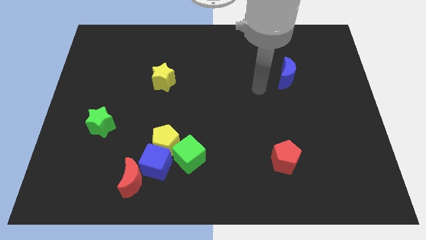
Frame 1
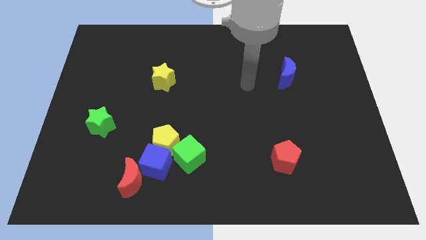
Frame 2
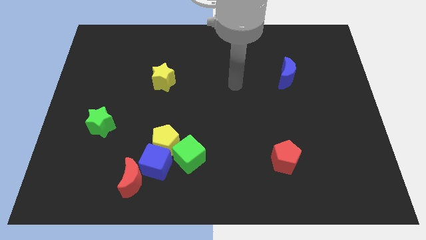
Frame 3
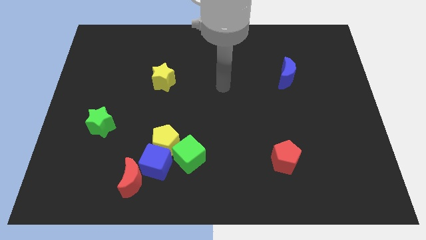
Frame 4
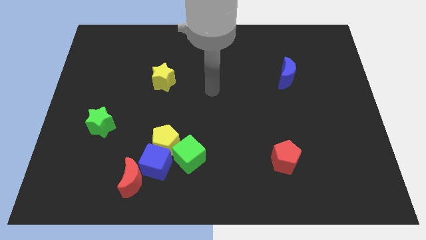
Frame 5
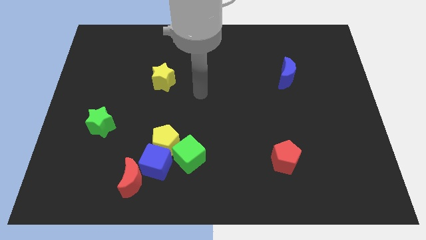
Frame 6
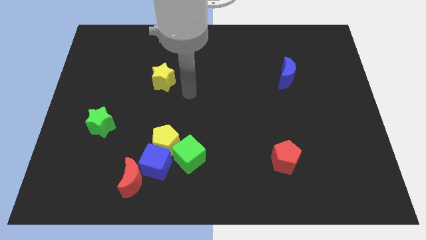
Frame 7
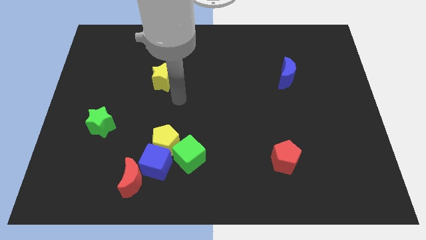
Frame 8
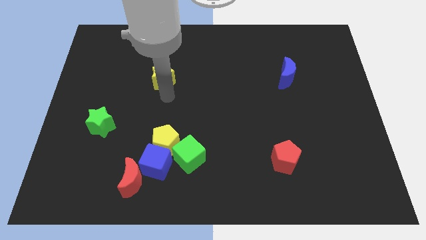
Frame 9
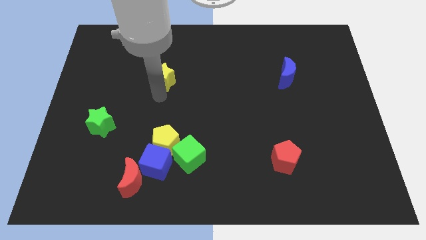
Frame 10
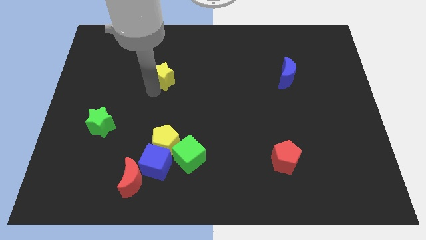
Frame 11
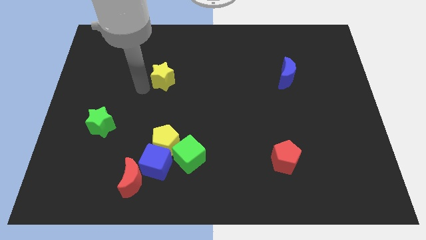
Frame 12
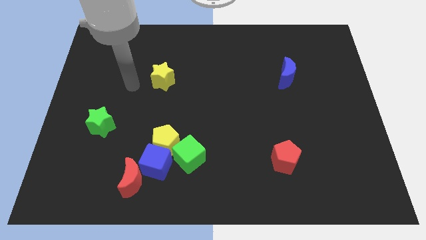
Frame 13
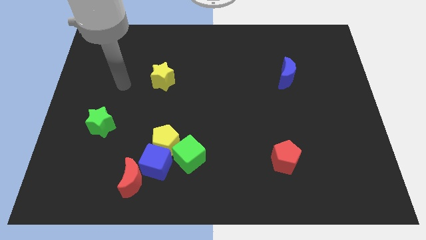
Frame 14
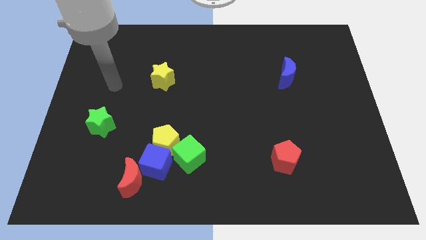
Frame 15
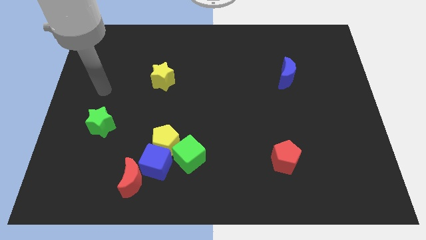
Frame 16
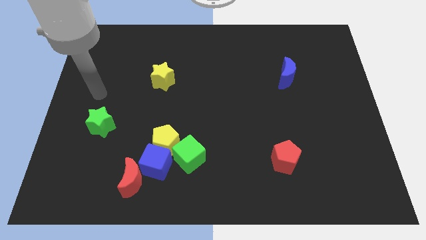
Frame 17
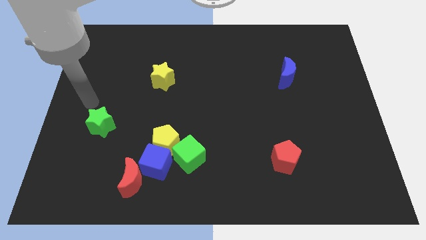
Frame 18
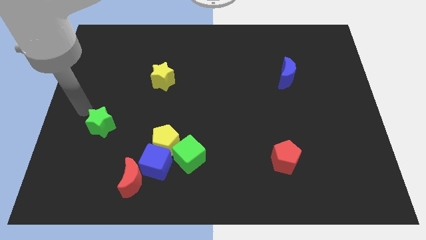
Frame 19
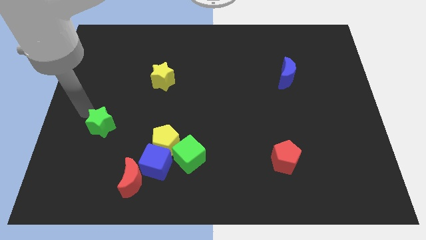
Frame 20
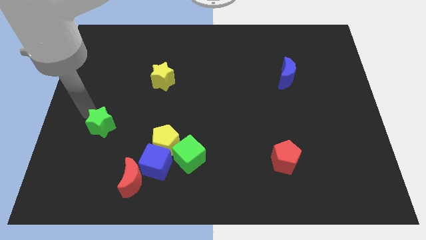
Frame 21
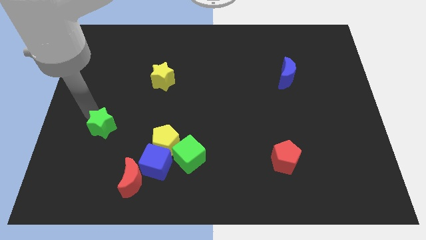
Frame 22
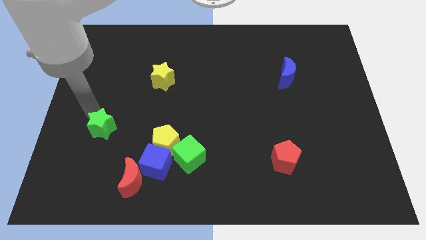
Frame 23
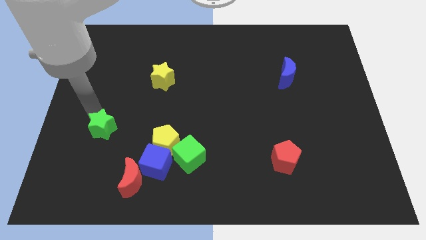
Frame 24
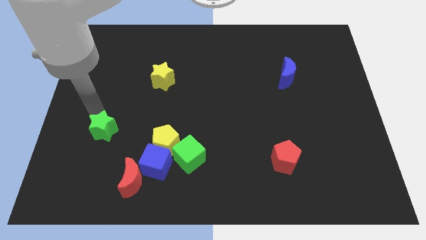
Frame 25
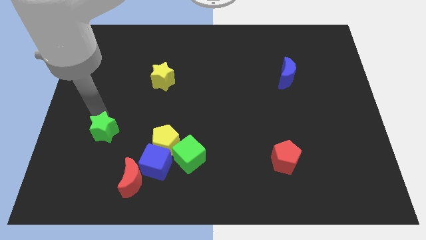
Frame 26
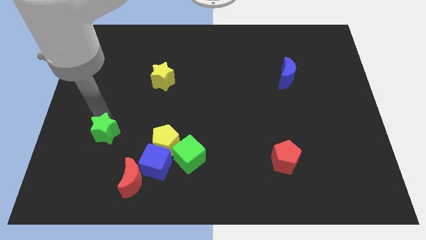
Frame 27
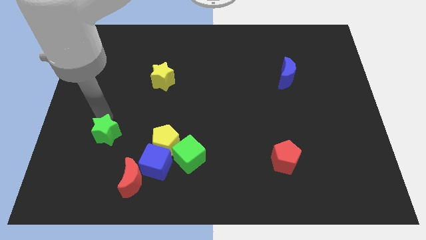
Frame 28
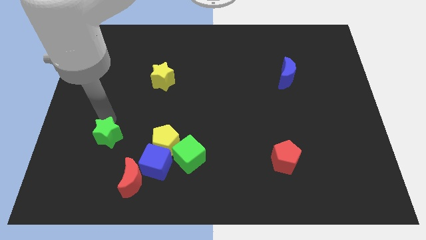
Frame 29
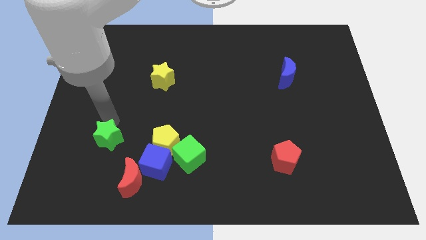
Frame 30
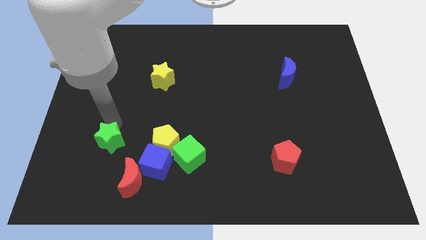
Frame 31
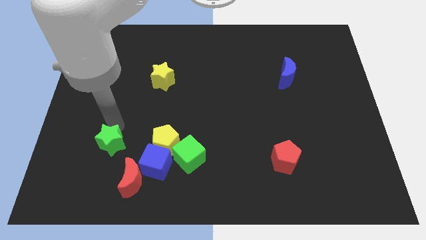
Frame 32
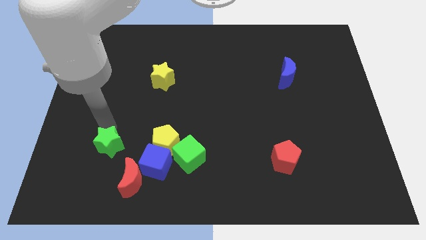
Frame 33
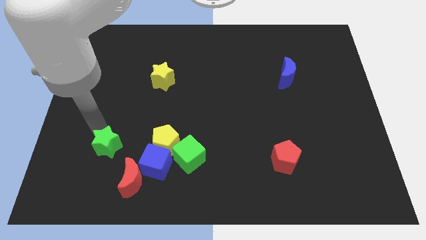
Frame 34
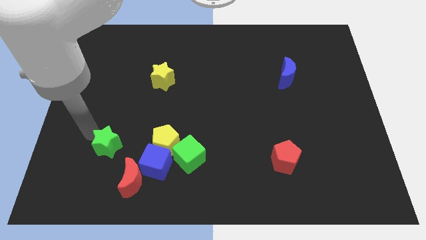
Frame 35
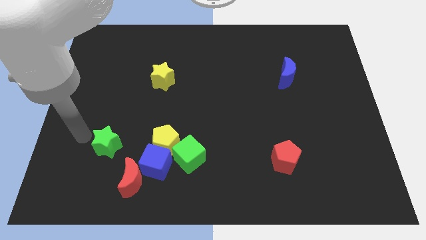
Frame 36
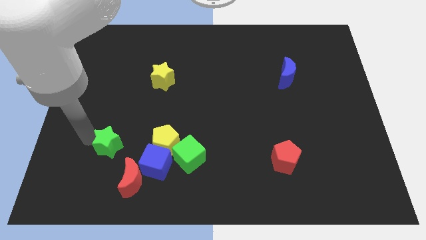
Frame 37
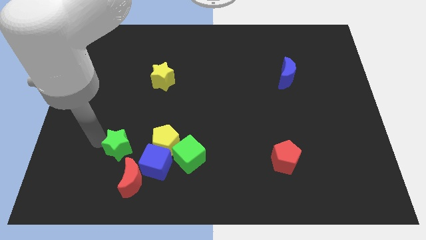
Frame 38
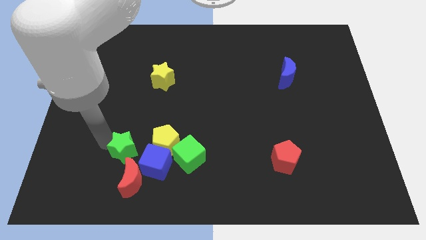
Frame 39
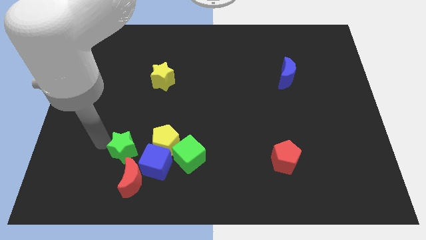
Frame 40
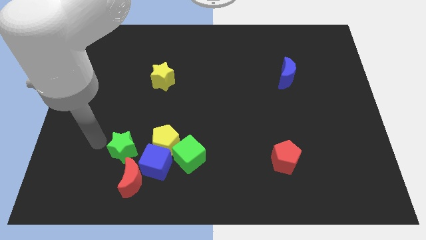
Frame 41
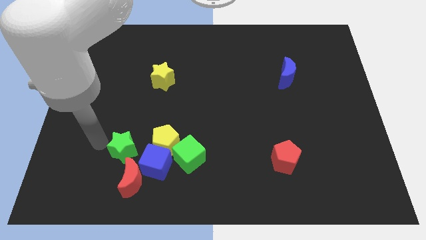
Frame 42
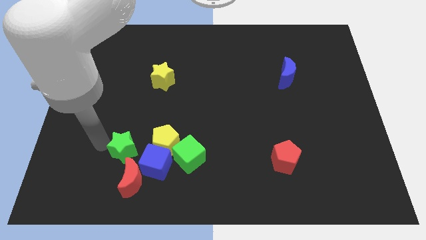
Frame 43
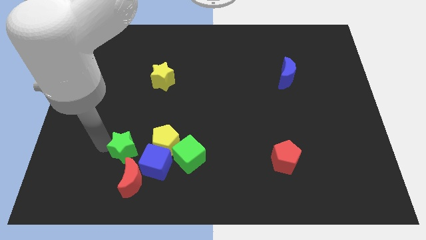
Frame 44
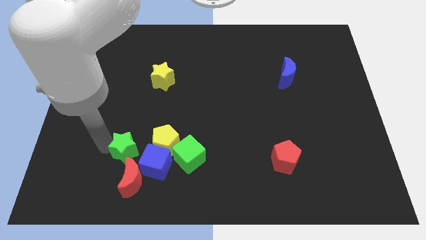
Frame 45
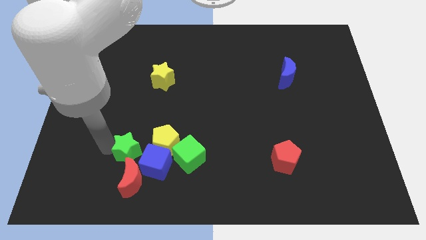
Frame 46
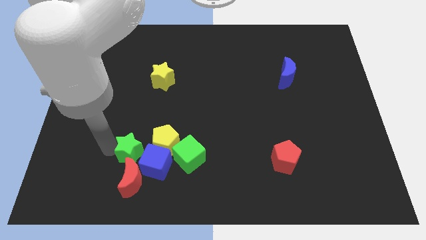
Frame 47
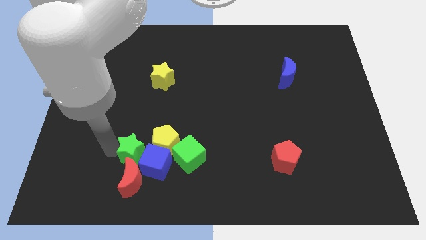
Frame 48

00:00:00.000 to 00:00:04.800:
put the green star close to the blue cube

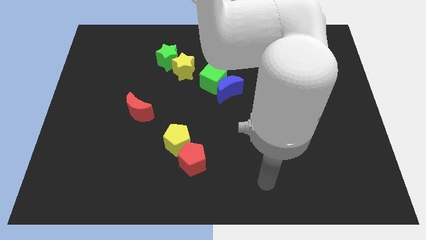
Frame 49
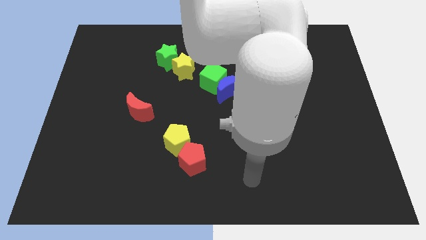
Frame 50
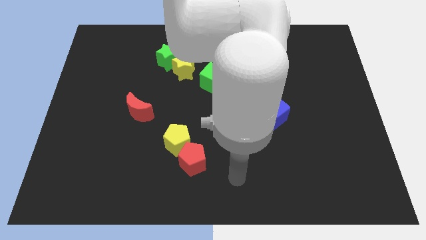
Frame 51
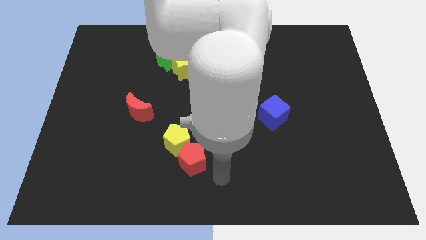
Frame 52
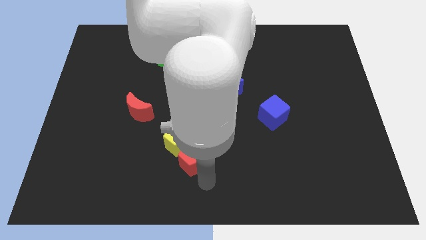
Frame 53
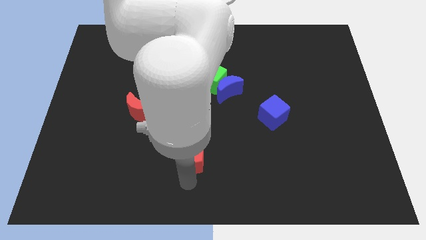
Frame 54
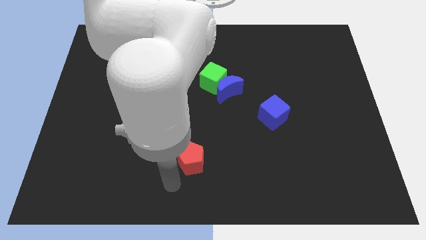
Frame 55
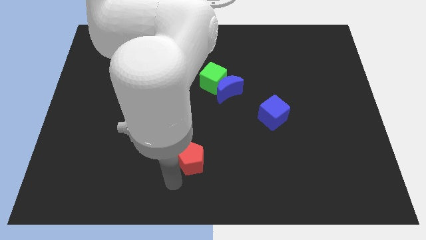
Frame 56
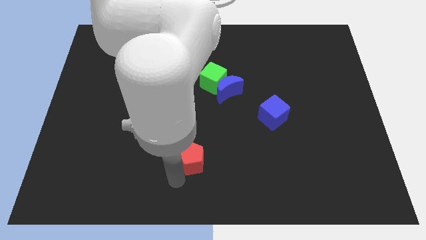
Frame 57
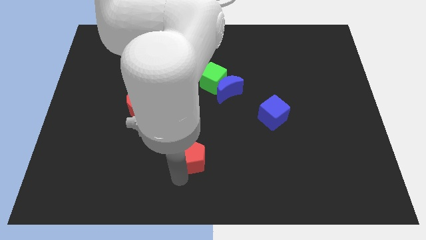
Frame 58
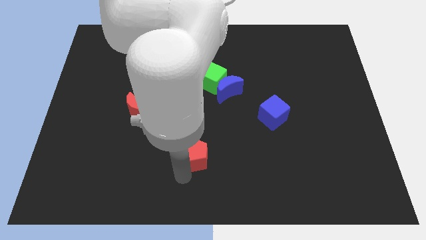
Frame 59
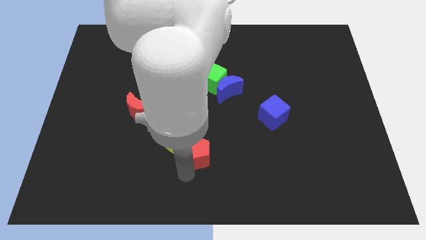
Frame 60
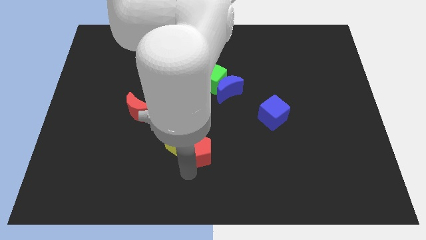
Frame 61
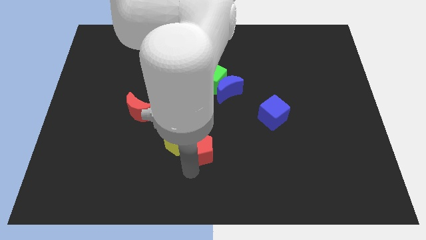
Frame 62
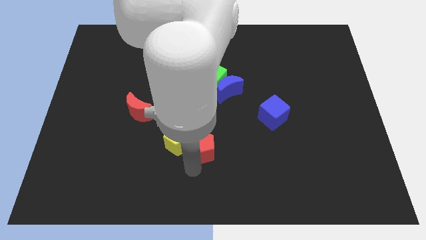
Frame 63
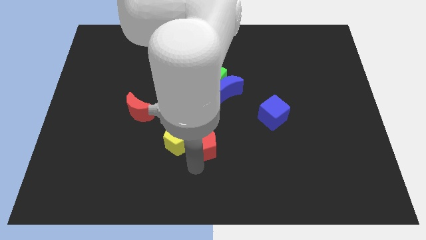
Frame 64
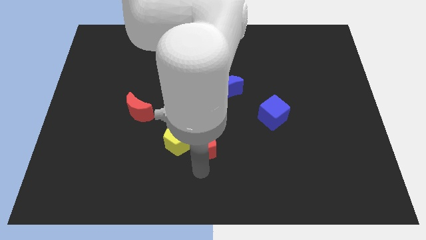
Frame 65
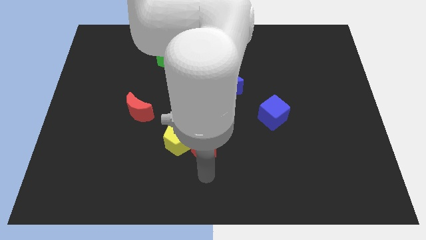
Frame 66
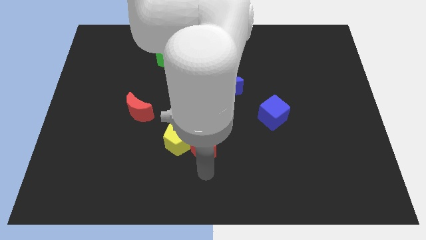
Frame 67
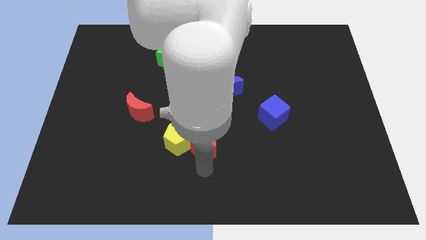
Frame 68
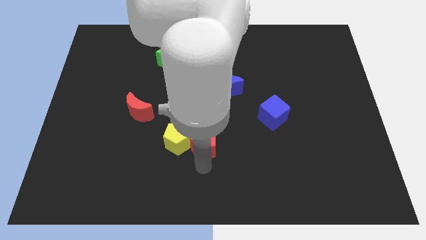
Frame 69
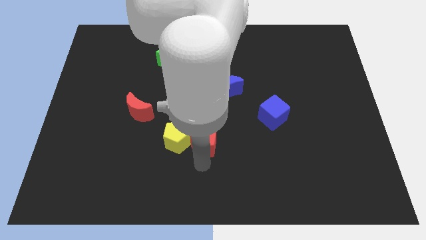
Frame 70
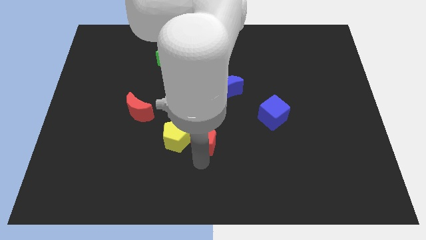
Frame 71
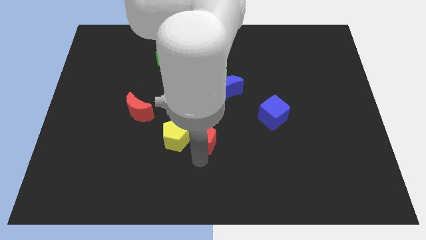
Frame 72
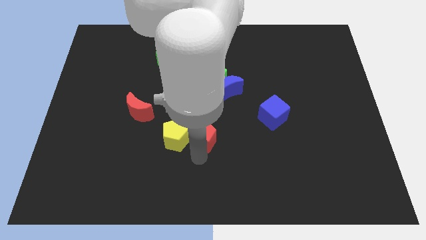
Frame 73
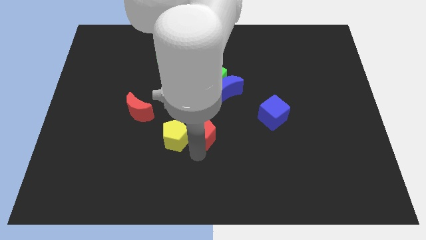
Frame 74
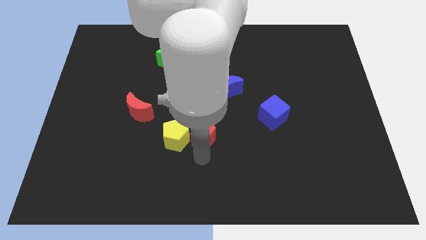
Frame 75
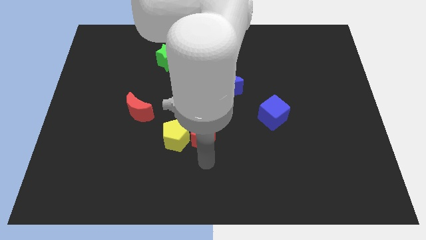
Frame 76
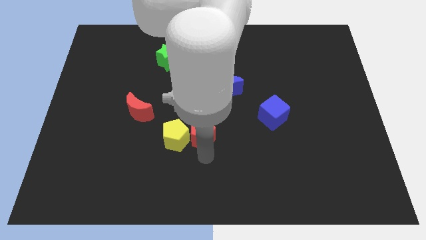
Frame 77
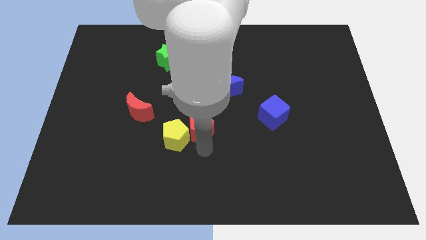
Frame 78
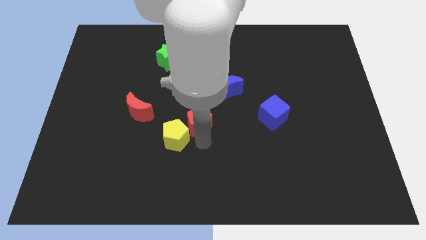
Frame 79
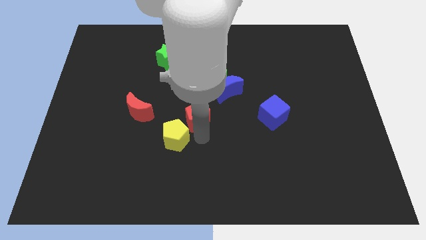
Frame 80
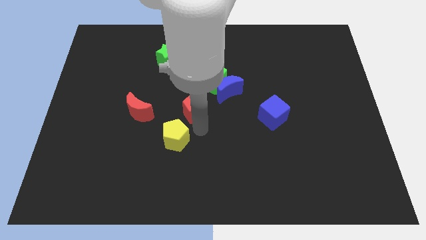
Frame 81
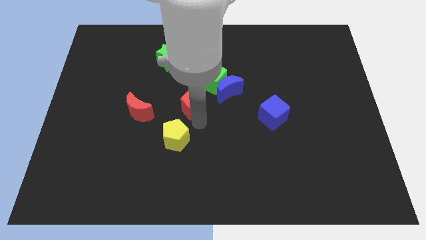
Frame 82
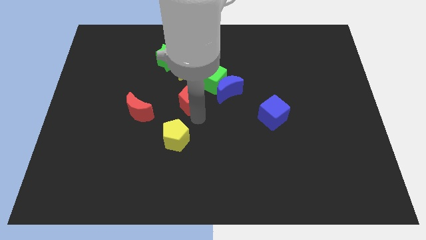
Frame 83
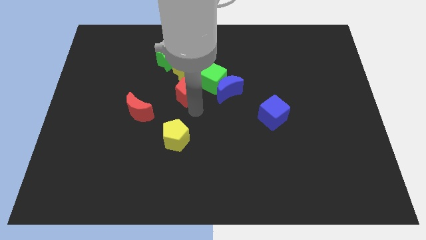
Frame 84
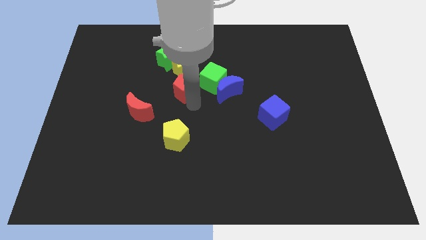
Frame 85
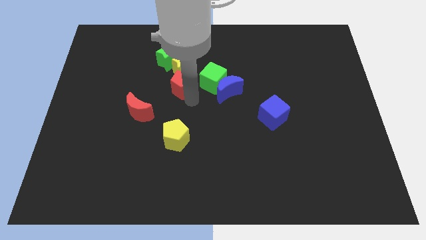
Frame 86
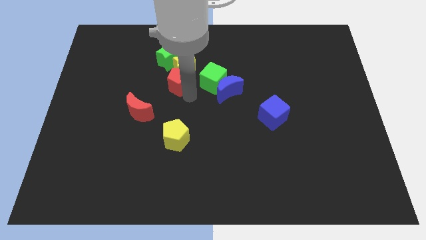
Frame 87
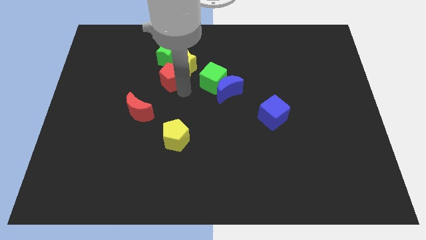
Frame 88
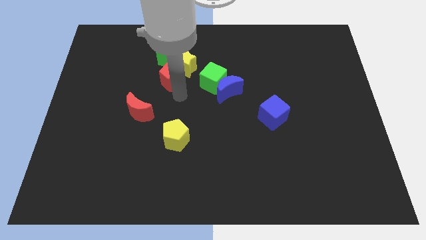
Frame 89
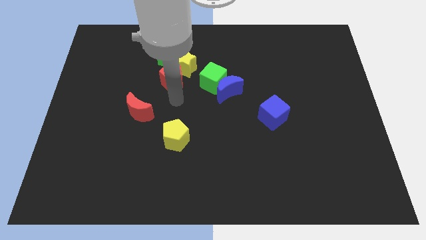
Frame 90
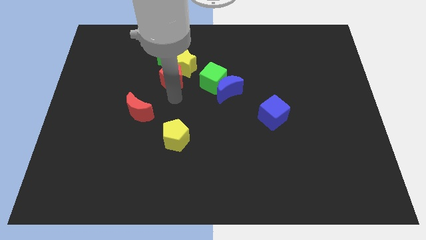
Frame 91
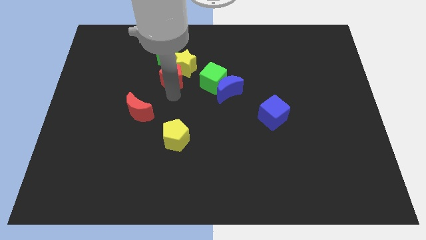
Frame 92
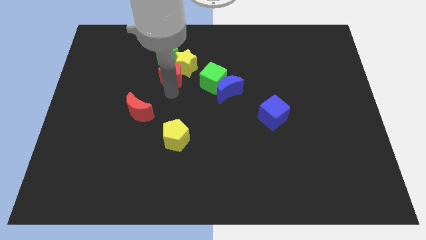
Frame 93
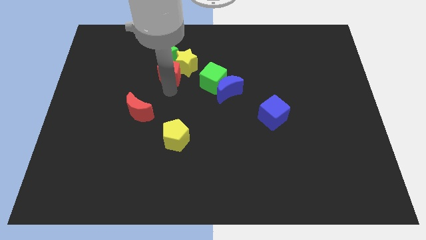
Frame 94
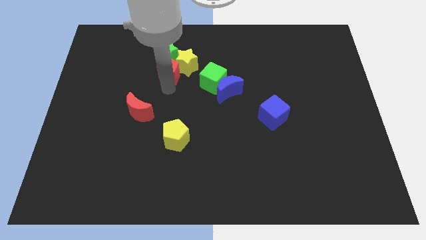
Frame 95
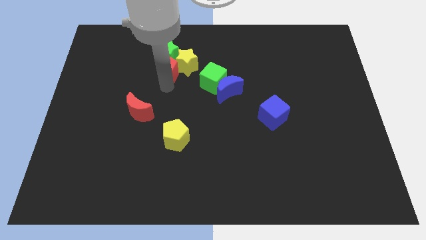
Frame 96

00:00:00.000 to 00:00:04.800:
slide the red pentagon close to the green star
